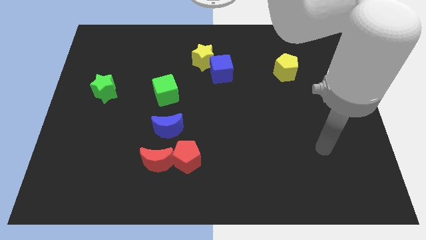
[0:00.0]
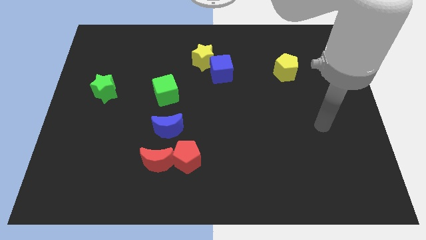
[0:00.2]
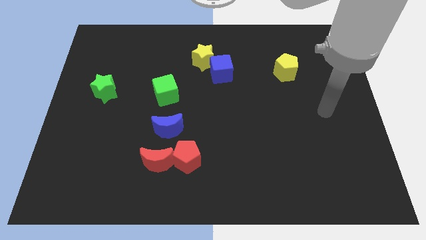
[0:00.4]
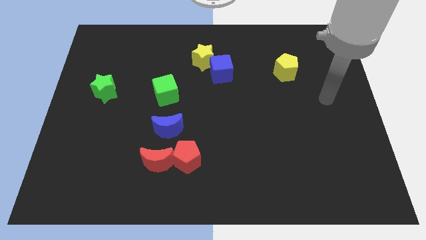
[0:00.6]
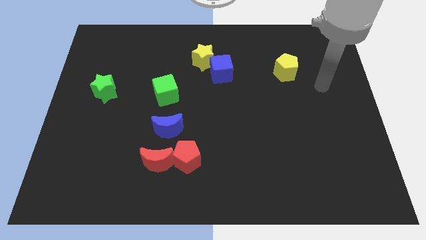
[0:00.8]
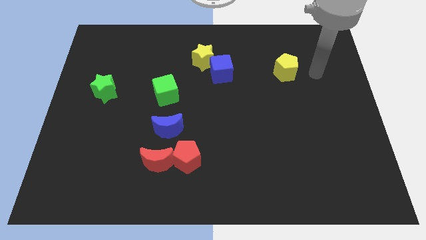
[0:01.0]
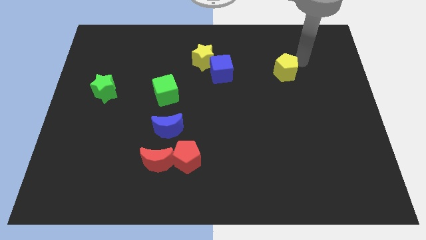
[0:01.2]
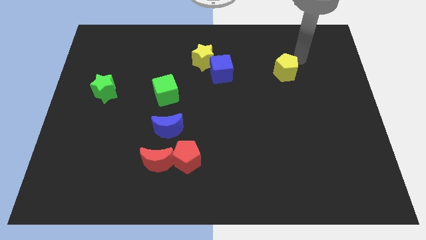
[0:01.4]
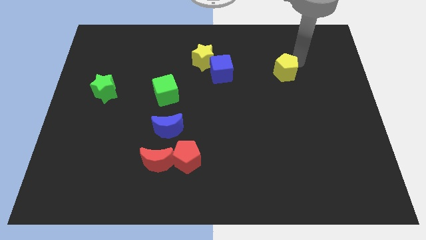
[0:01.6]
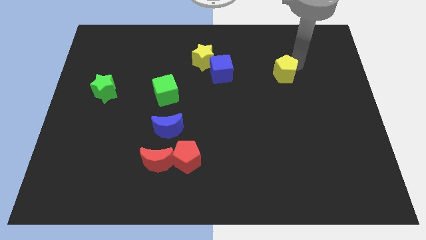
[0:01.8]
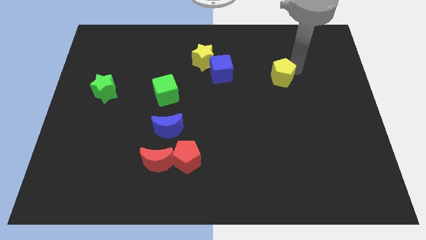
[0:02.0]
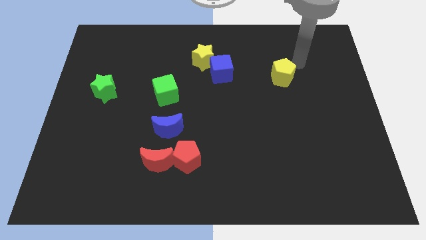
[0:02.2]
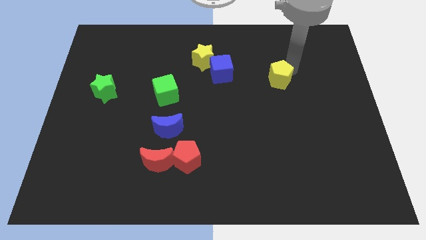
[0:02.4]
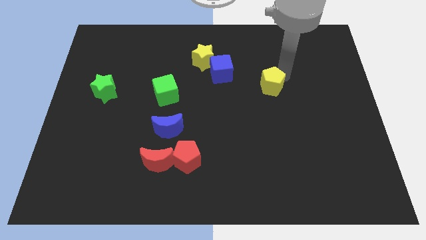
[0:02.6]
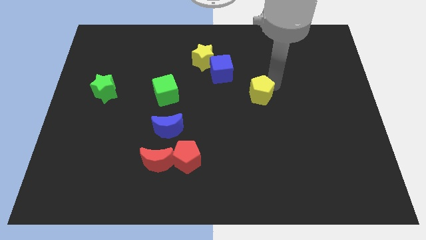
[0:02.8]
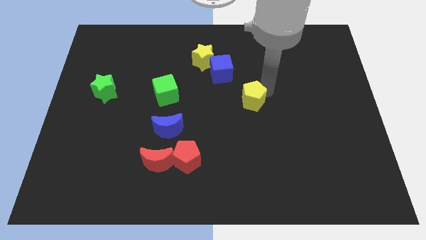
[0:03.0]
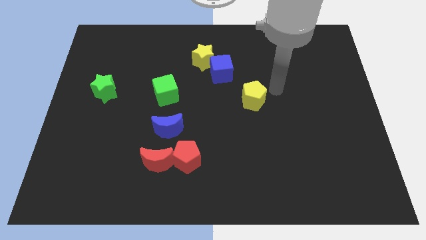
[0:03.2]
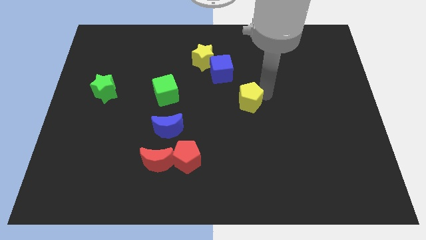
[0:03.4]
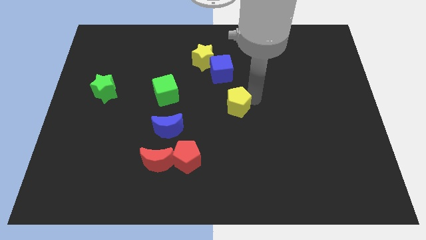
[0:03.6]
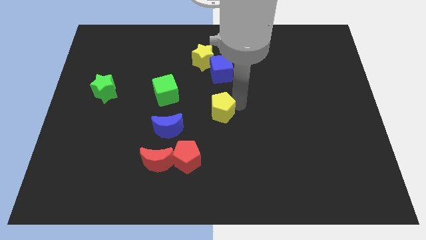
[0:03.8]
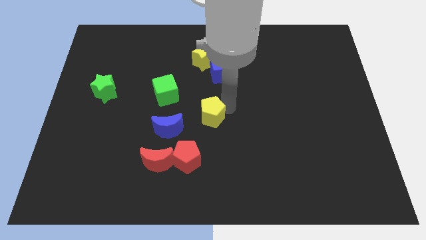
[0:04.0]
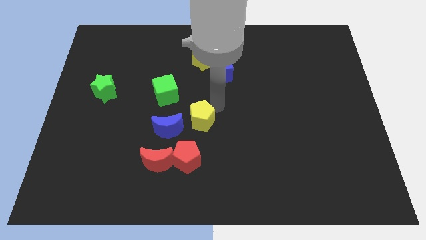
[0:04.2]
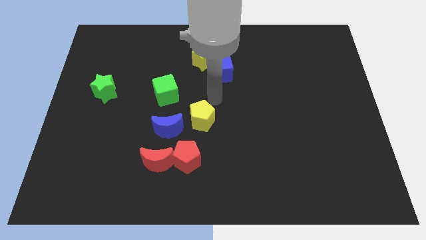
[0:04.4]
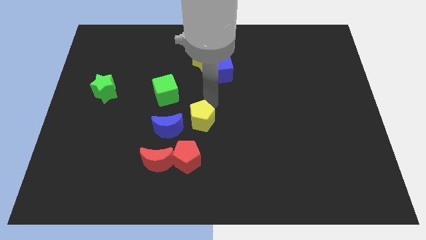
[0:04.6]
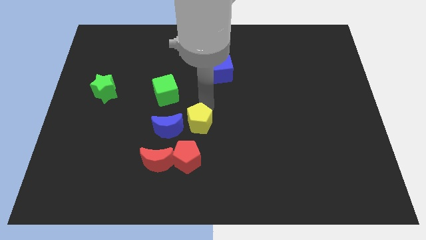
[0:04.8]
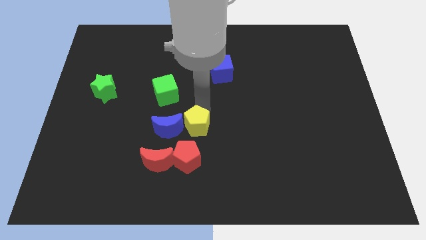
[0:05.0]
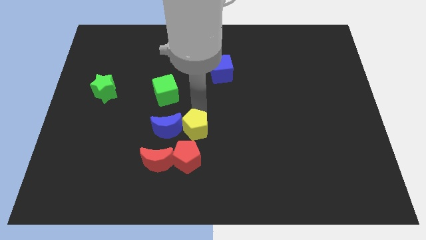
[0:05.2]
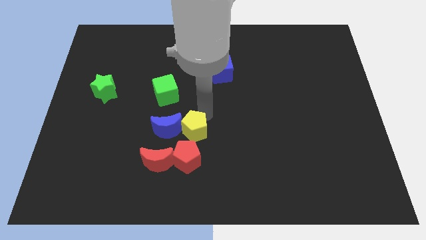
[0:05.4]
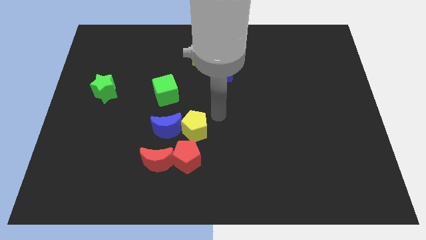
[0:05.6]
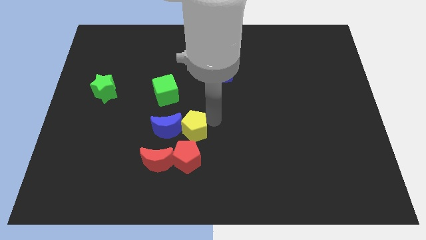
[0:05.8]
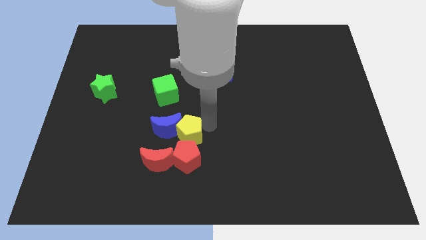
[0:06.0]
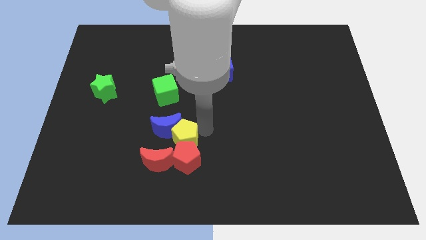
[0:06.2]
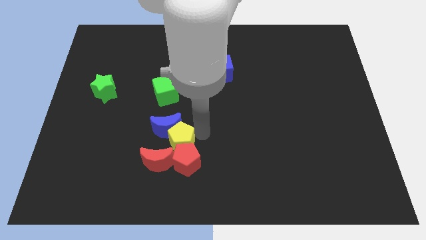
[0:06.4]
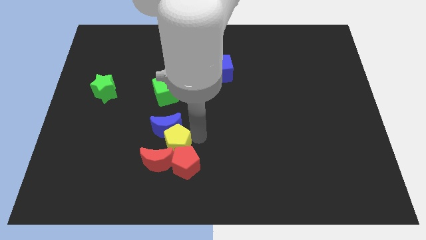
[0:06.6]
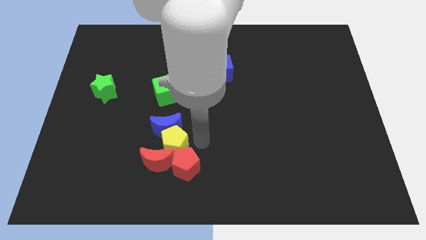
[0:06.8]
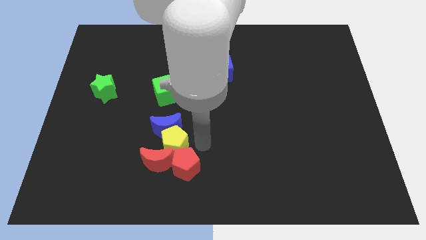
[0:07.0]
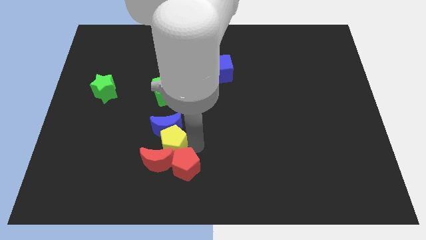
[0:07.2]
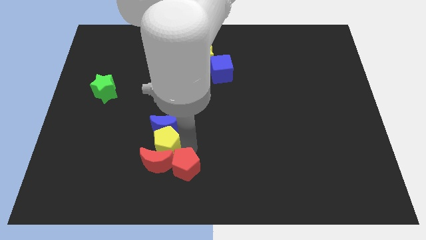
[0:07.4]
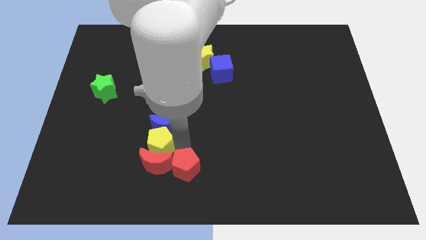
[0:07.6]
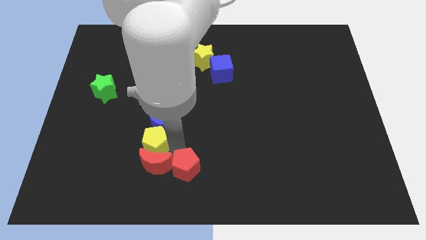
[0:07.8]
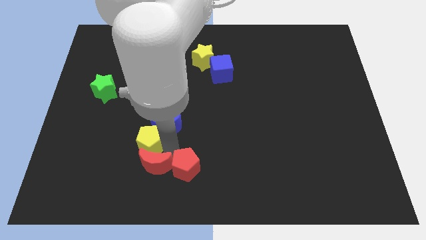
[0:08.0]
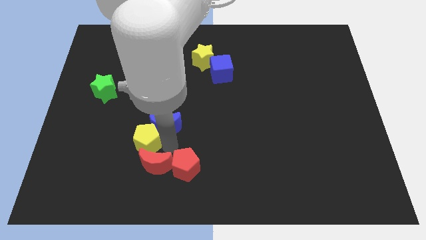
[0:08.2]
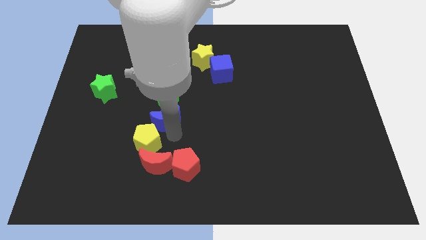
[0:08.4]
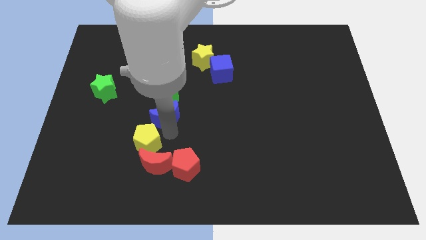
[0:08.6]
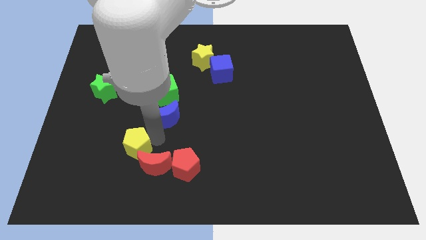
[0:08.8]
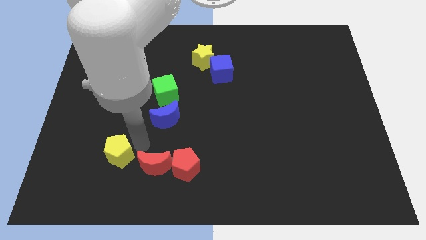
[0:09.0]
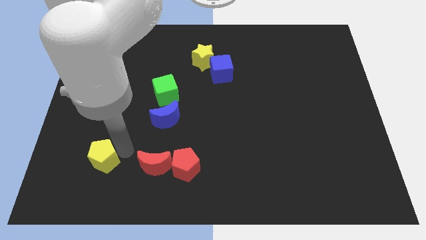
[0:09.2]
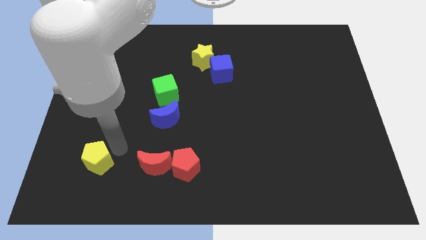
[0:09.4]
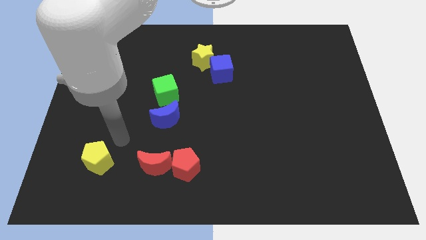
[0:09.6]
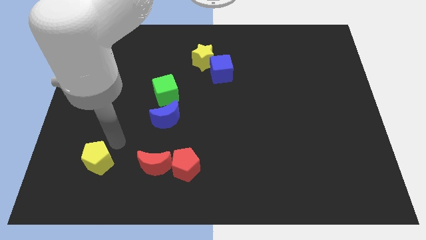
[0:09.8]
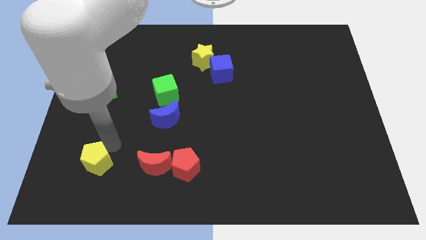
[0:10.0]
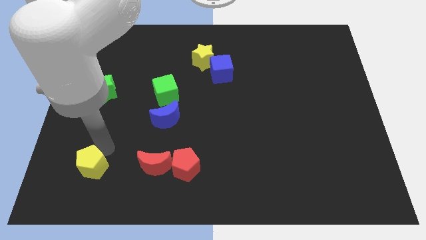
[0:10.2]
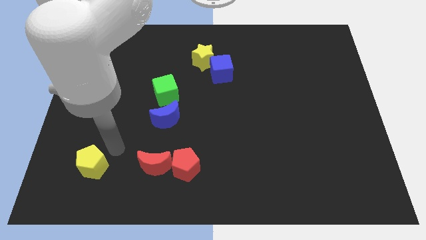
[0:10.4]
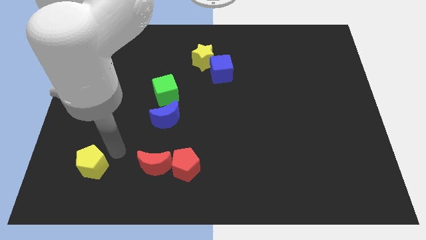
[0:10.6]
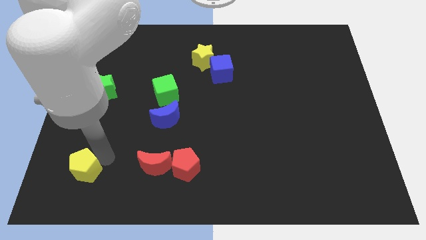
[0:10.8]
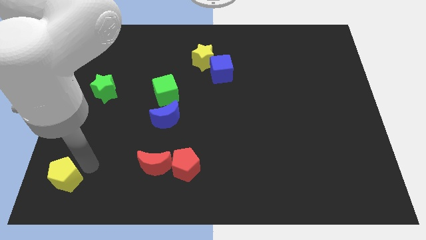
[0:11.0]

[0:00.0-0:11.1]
push the yellow pentagon to the bottom left
